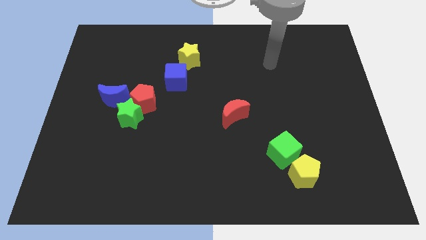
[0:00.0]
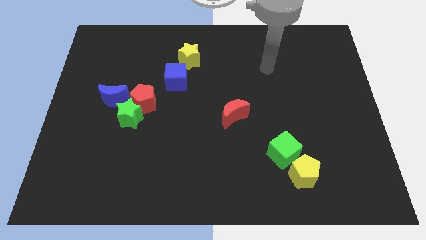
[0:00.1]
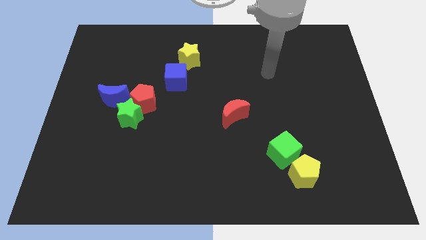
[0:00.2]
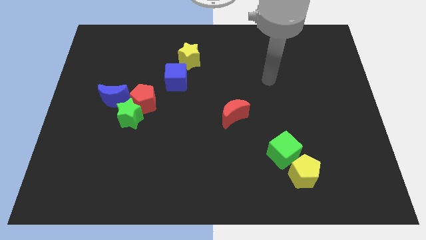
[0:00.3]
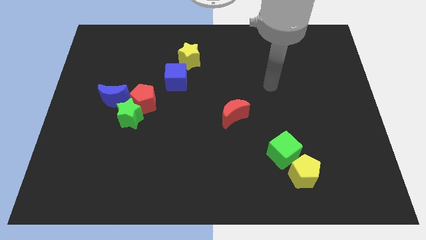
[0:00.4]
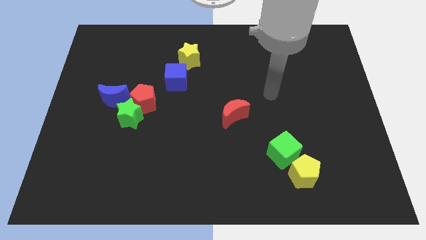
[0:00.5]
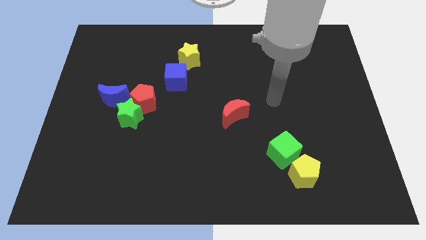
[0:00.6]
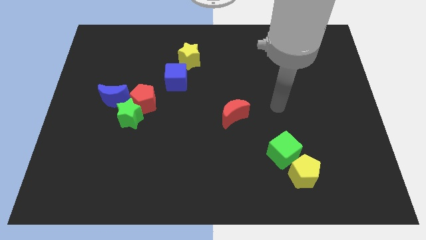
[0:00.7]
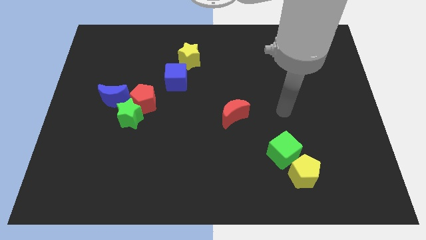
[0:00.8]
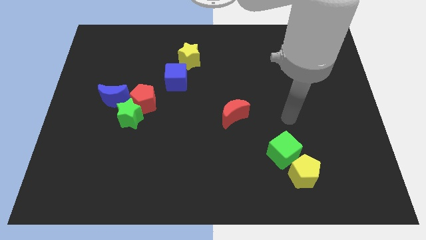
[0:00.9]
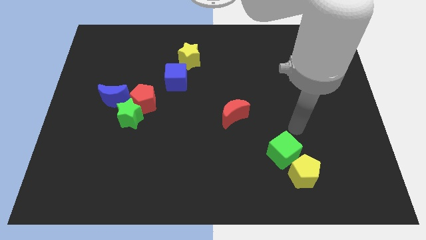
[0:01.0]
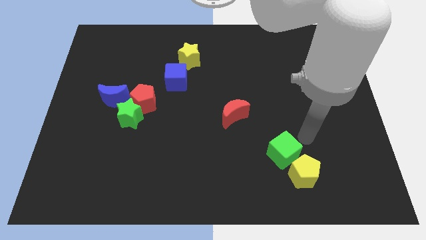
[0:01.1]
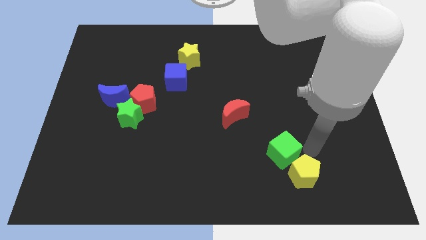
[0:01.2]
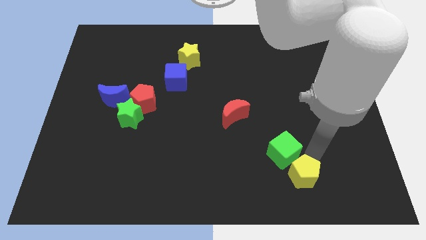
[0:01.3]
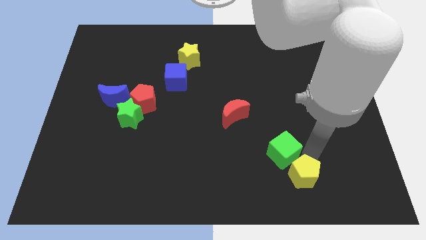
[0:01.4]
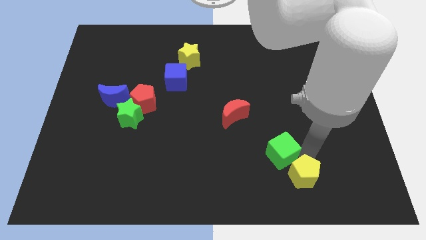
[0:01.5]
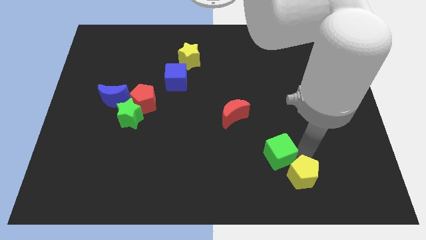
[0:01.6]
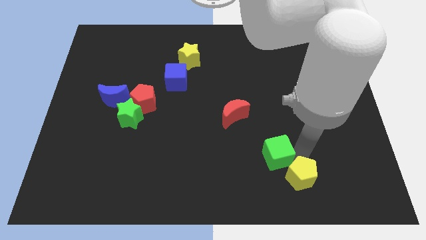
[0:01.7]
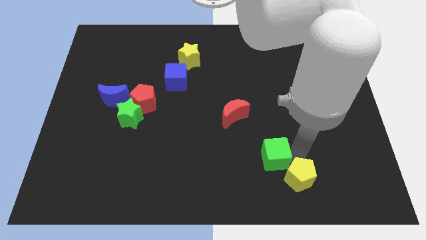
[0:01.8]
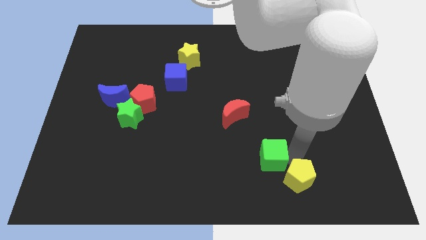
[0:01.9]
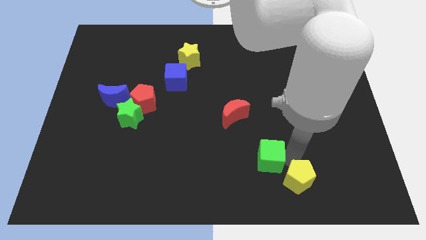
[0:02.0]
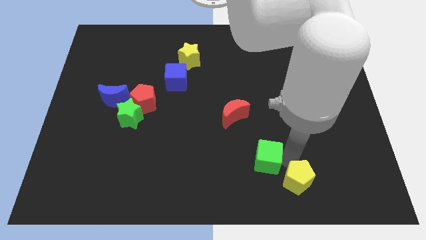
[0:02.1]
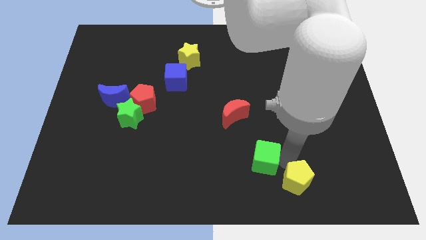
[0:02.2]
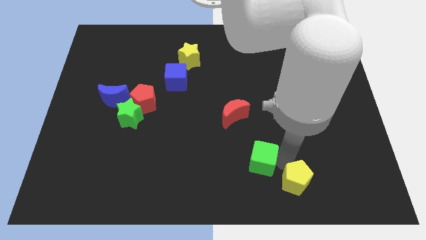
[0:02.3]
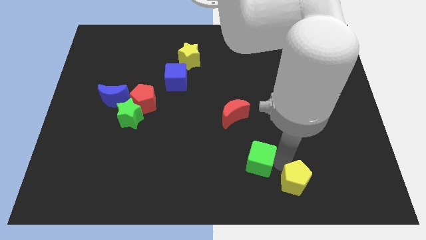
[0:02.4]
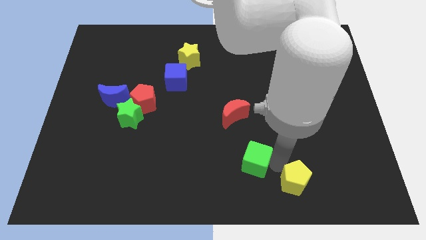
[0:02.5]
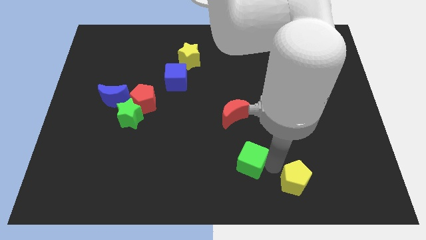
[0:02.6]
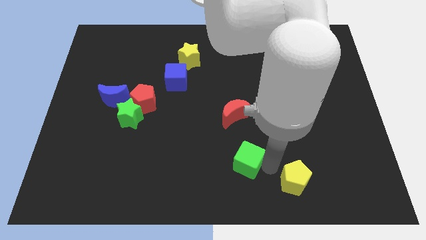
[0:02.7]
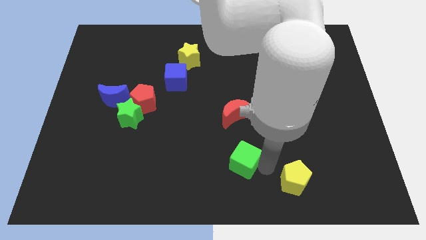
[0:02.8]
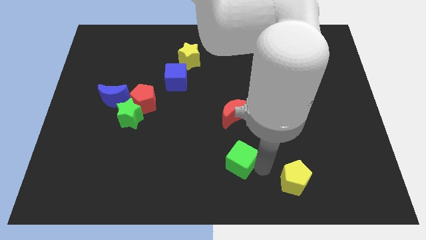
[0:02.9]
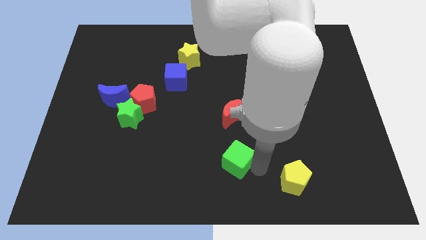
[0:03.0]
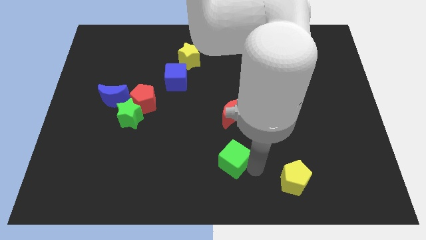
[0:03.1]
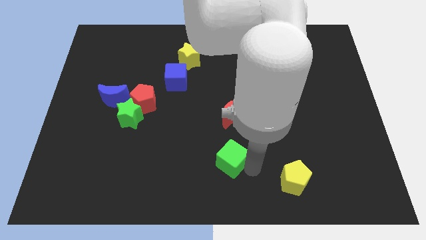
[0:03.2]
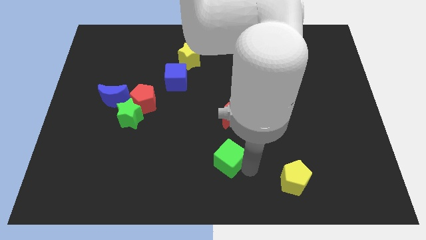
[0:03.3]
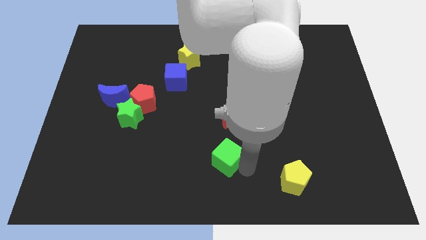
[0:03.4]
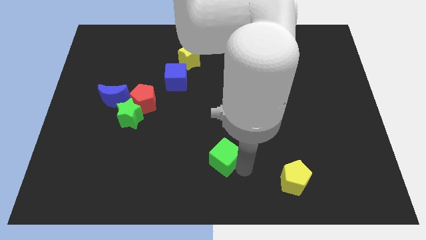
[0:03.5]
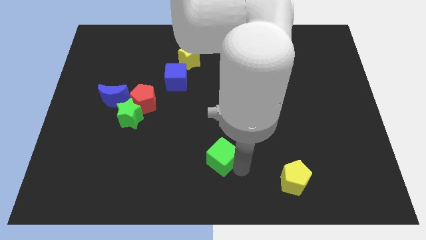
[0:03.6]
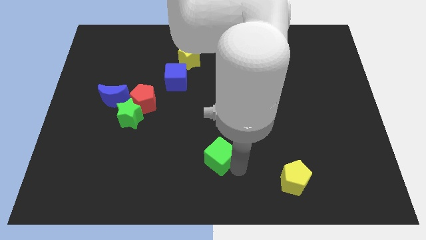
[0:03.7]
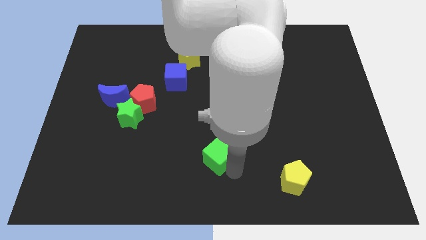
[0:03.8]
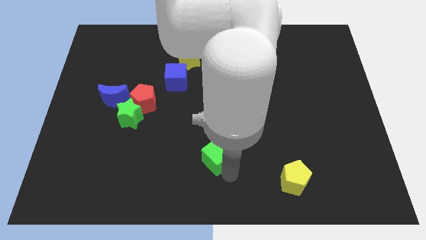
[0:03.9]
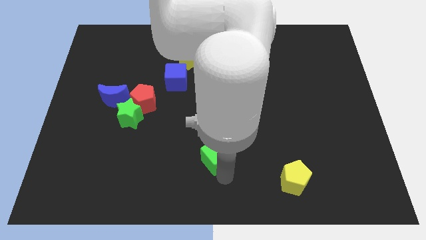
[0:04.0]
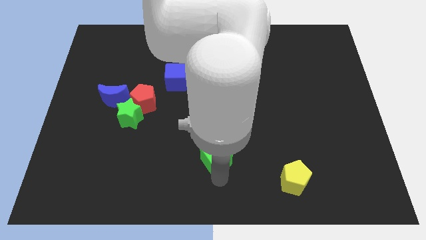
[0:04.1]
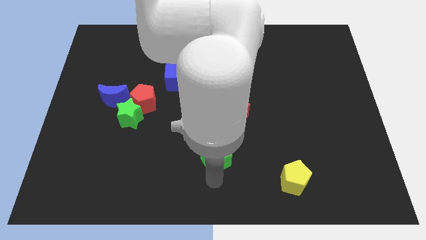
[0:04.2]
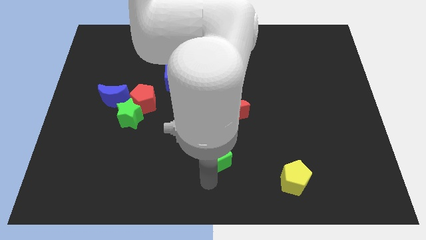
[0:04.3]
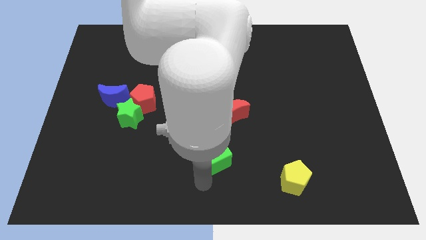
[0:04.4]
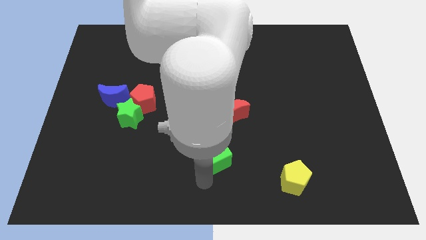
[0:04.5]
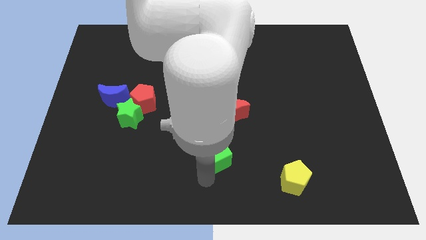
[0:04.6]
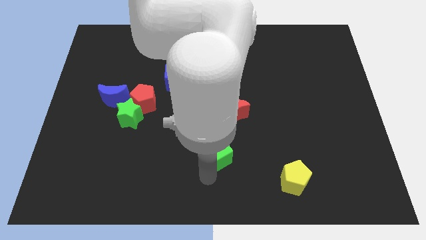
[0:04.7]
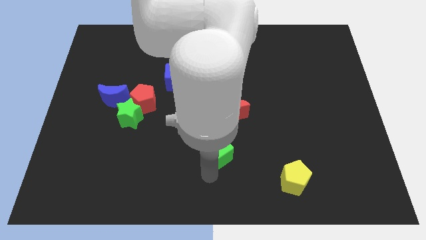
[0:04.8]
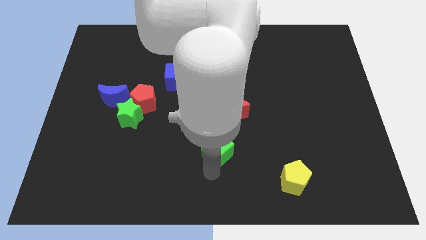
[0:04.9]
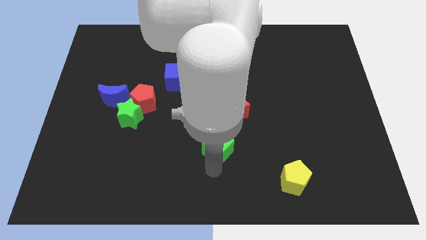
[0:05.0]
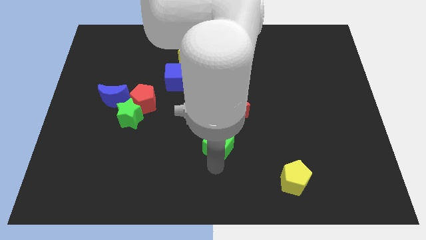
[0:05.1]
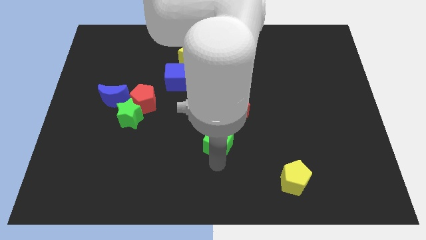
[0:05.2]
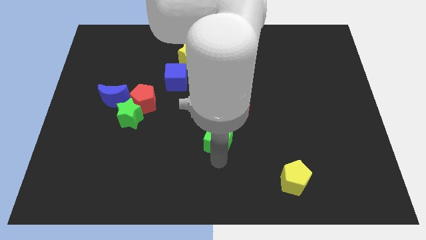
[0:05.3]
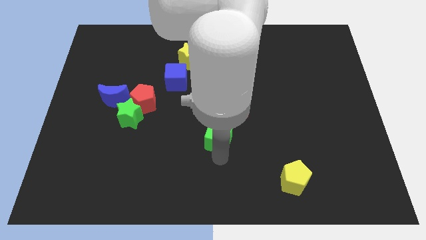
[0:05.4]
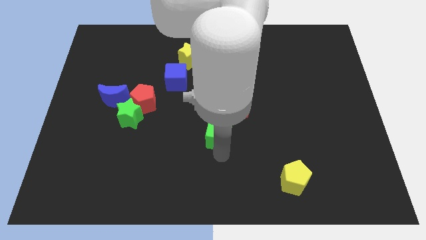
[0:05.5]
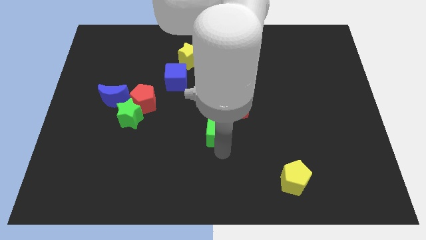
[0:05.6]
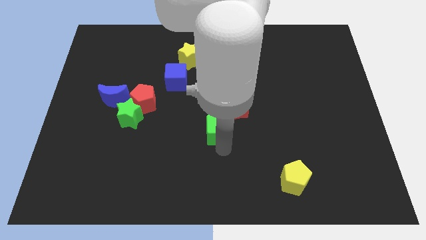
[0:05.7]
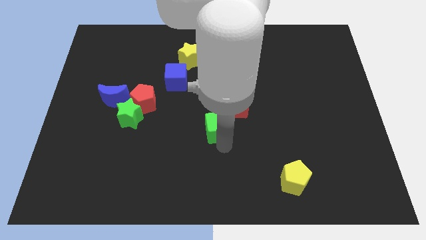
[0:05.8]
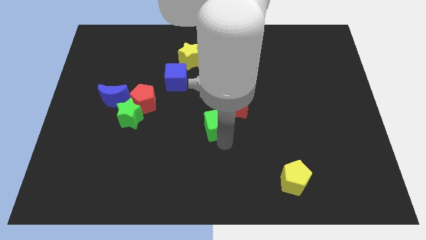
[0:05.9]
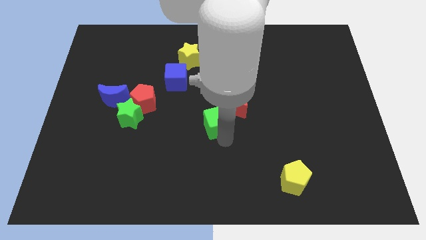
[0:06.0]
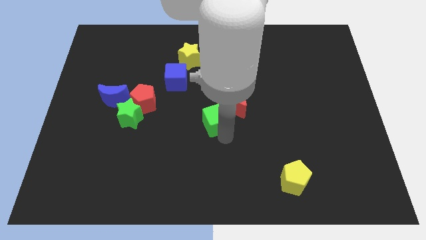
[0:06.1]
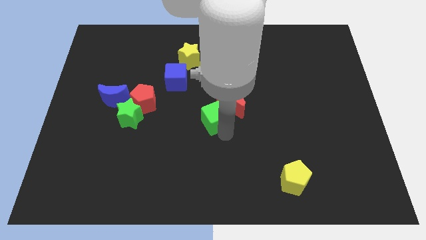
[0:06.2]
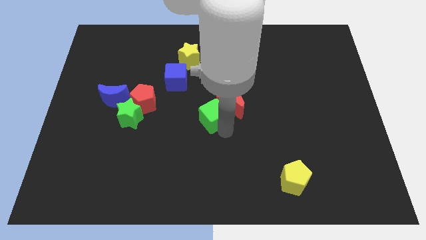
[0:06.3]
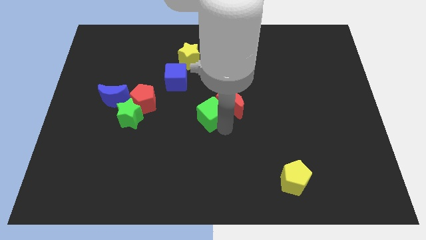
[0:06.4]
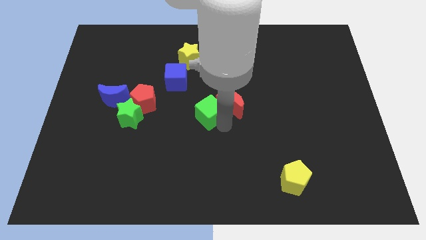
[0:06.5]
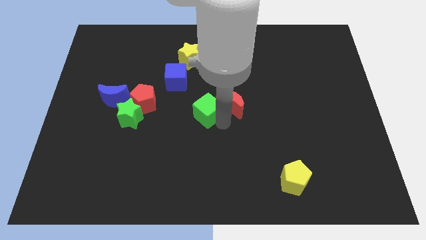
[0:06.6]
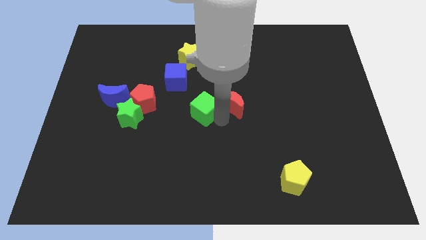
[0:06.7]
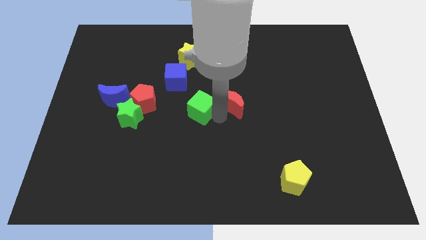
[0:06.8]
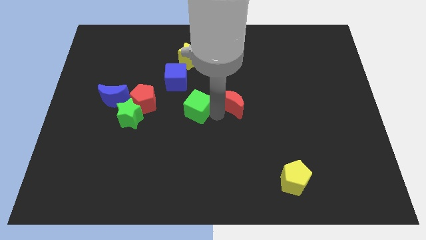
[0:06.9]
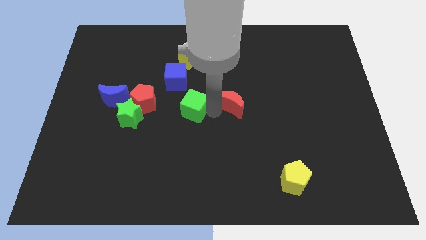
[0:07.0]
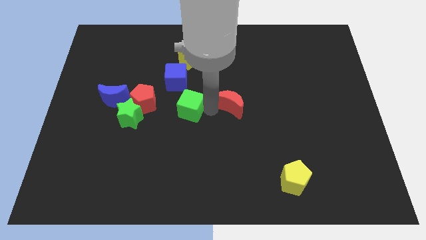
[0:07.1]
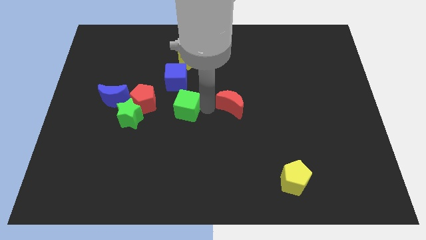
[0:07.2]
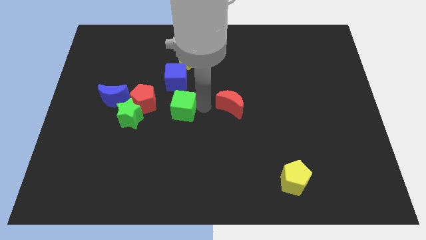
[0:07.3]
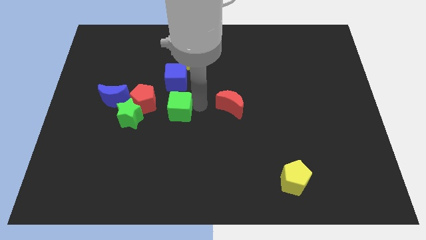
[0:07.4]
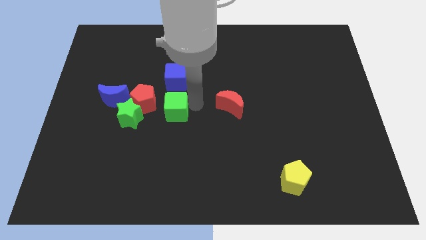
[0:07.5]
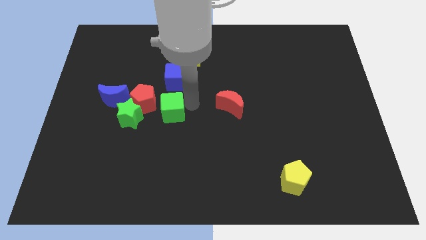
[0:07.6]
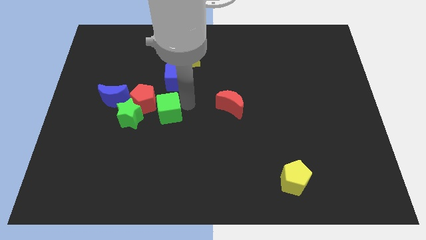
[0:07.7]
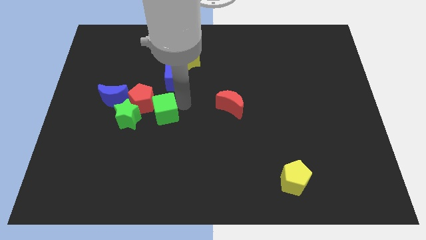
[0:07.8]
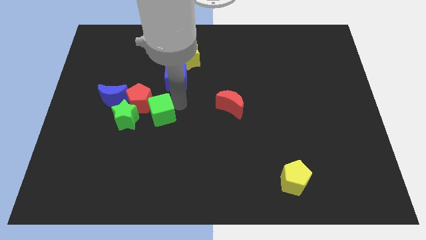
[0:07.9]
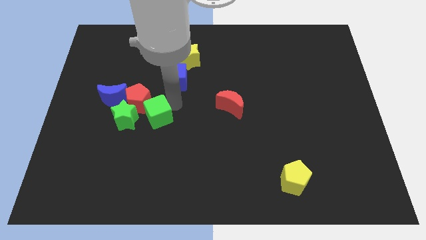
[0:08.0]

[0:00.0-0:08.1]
slide the green cube to the bottom side of the red pentagon
